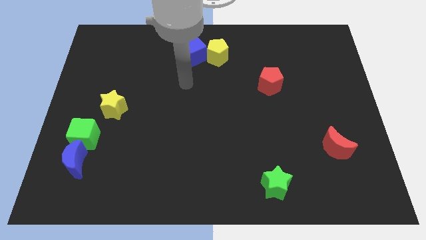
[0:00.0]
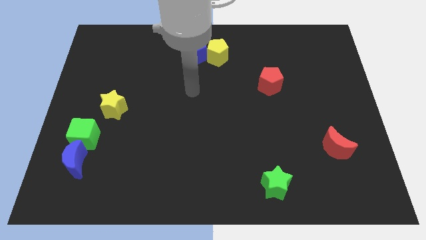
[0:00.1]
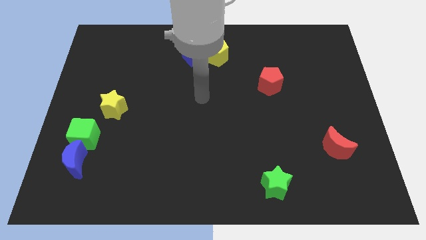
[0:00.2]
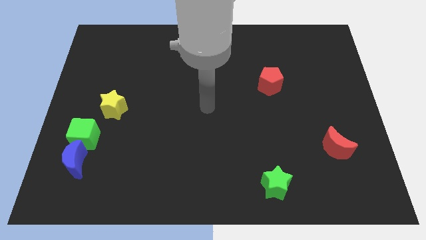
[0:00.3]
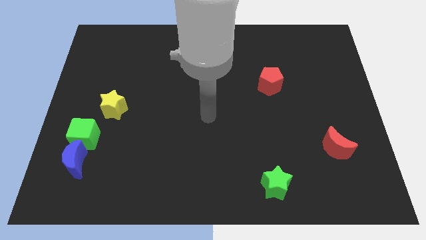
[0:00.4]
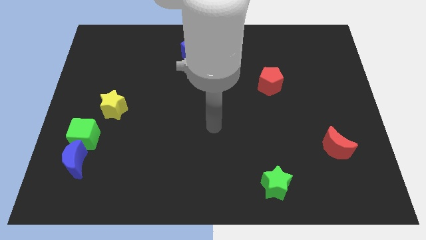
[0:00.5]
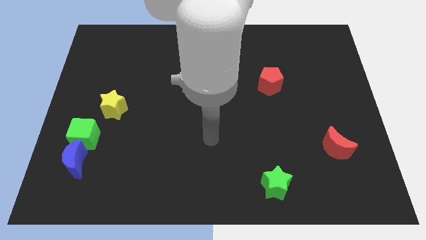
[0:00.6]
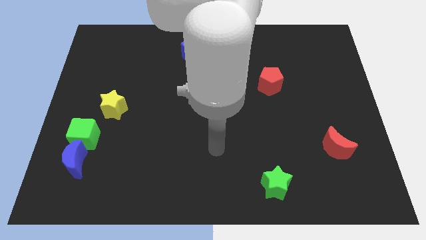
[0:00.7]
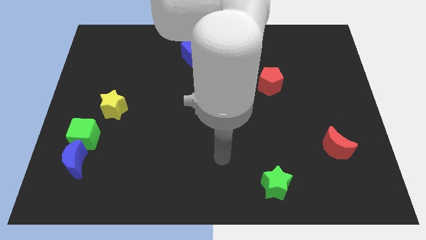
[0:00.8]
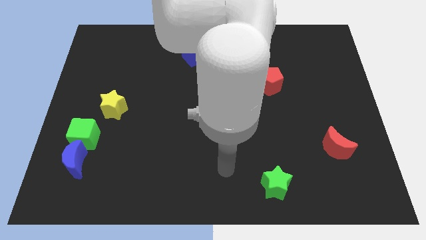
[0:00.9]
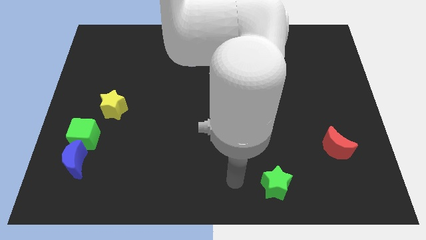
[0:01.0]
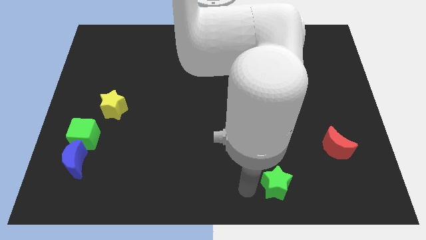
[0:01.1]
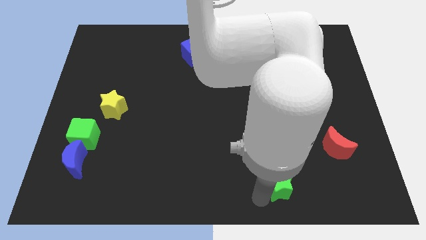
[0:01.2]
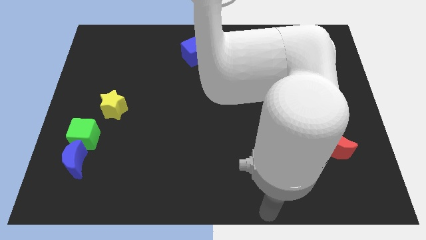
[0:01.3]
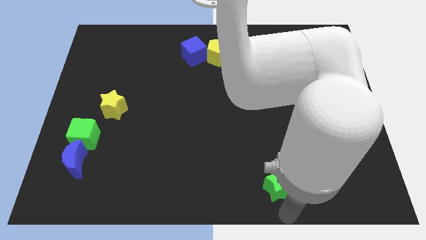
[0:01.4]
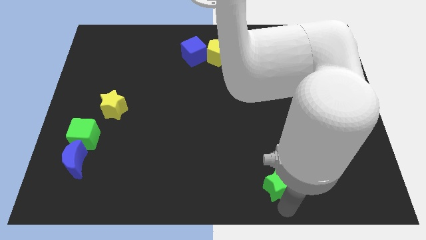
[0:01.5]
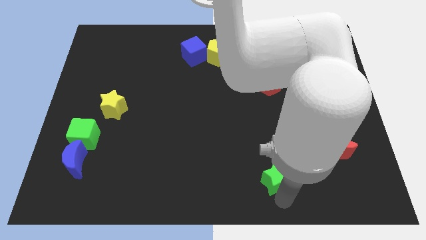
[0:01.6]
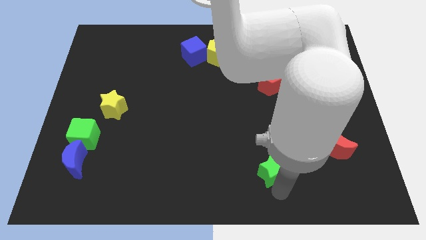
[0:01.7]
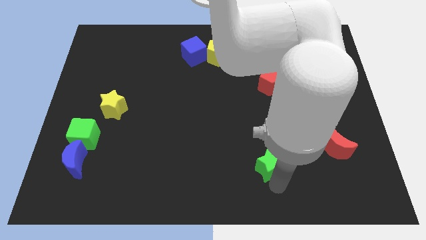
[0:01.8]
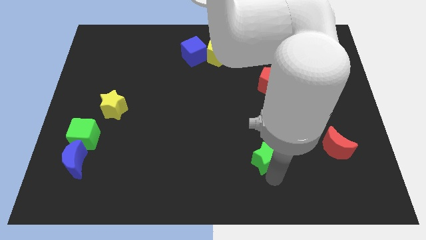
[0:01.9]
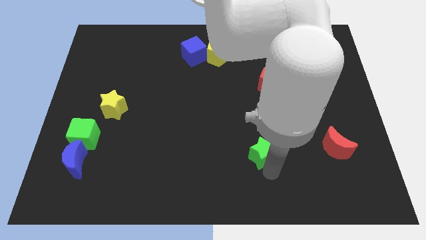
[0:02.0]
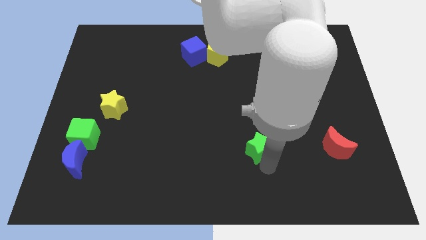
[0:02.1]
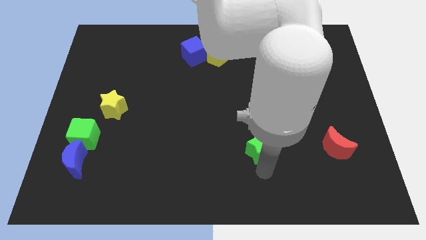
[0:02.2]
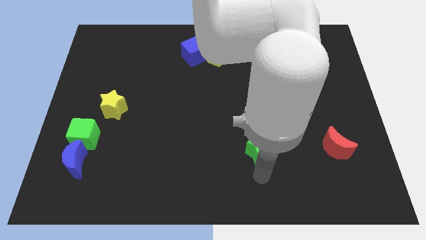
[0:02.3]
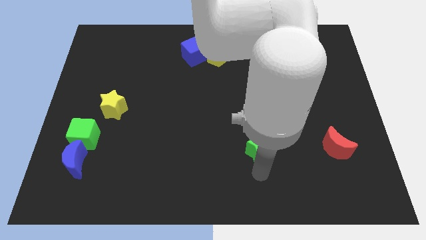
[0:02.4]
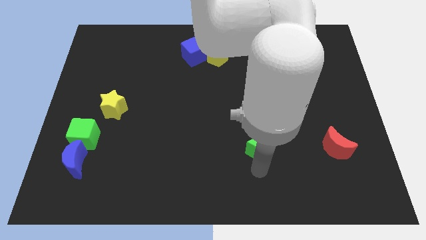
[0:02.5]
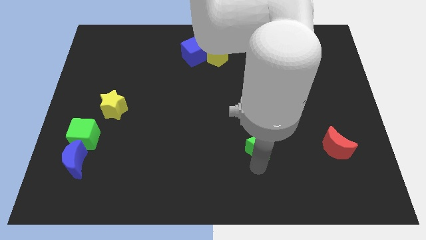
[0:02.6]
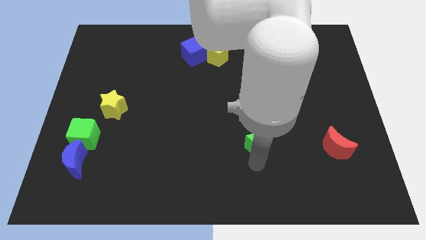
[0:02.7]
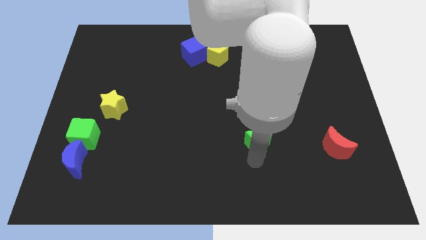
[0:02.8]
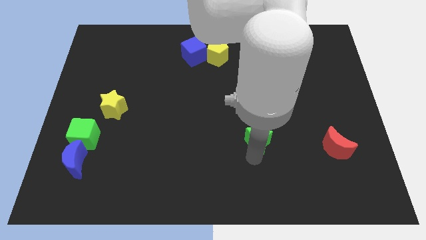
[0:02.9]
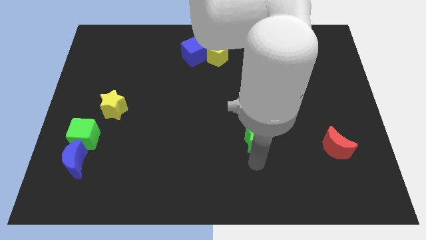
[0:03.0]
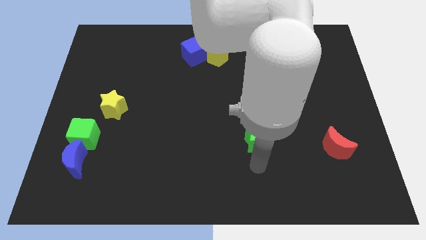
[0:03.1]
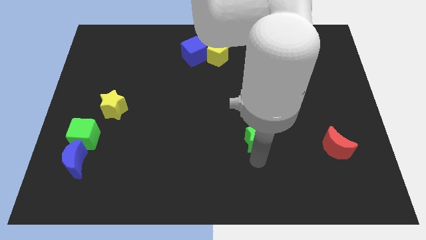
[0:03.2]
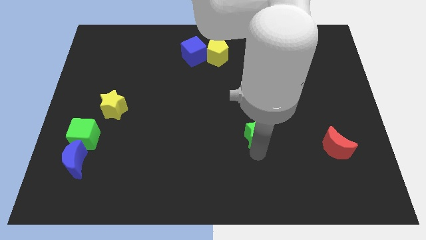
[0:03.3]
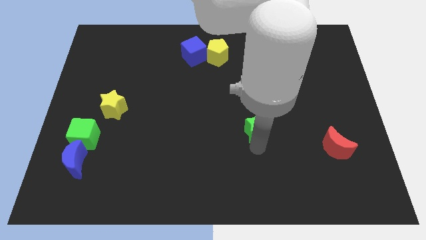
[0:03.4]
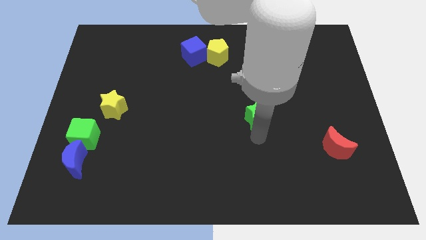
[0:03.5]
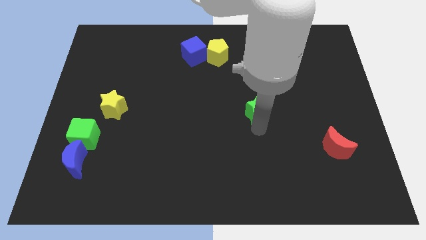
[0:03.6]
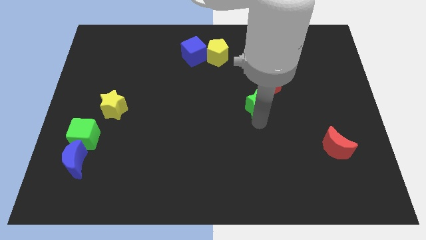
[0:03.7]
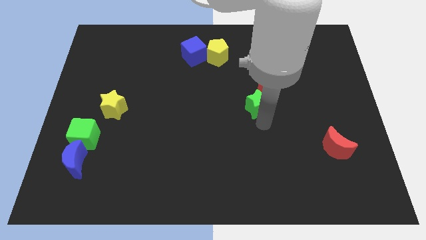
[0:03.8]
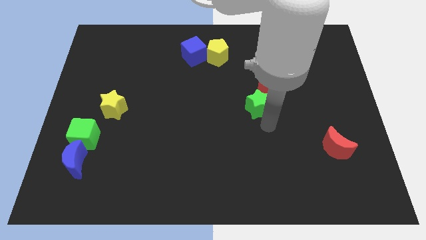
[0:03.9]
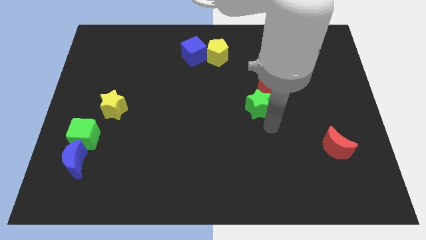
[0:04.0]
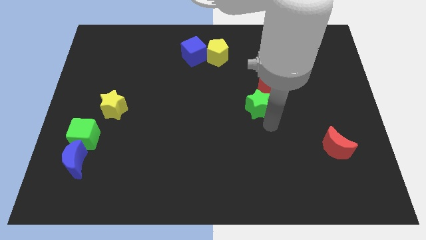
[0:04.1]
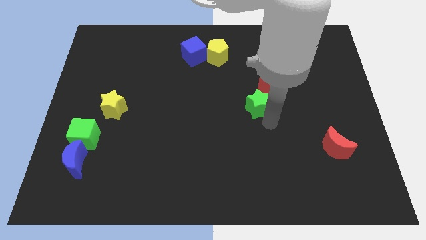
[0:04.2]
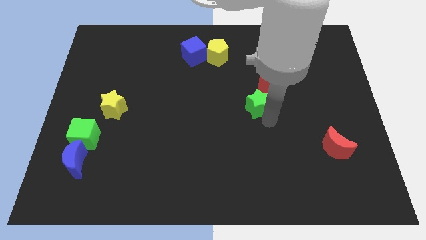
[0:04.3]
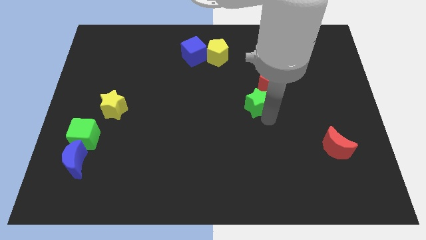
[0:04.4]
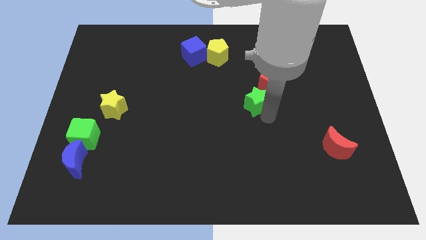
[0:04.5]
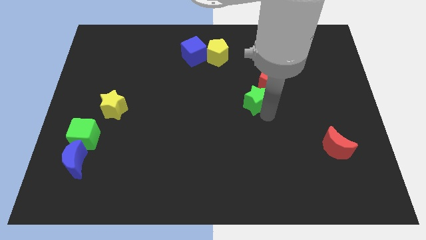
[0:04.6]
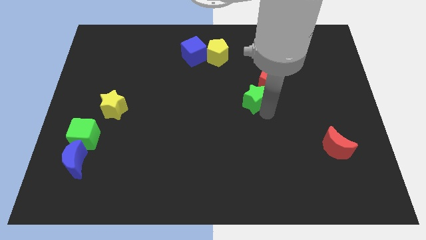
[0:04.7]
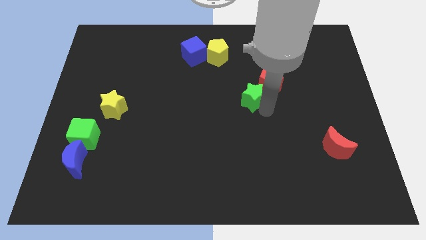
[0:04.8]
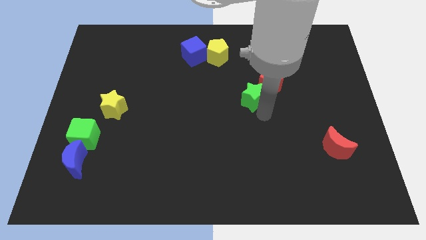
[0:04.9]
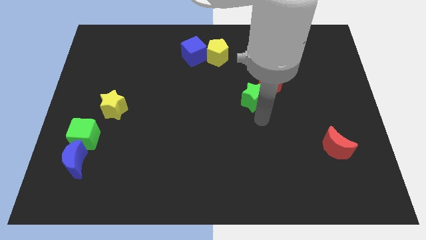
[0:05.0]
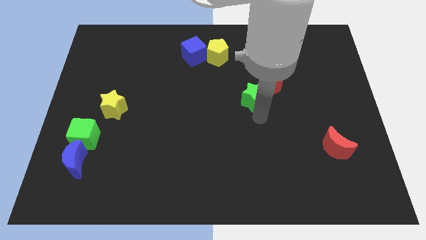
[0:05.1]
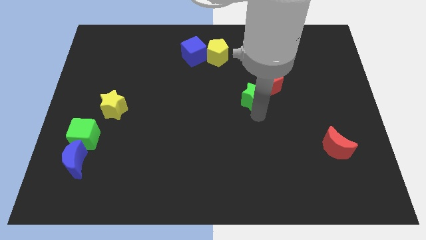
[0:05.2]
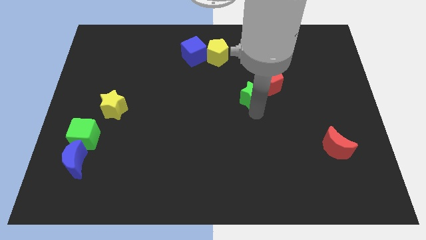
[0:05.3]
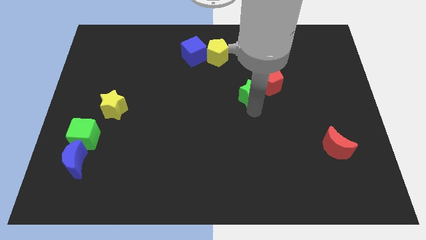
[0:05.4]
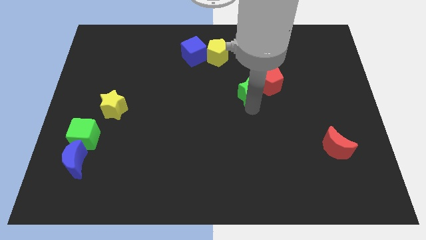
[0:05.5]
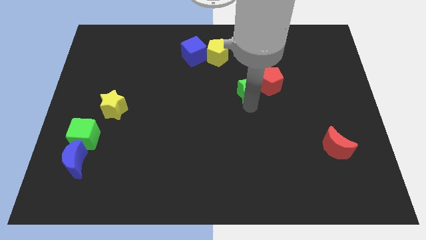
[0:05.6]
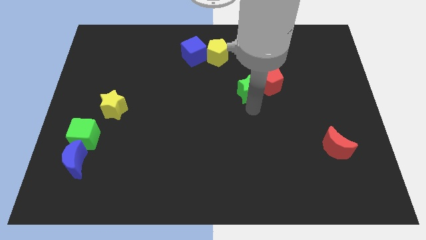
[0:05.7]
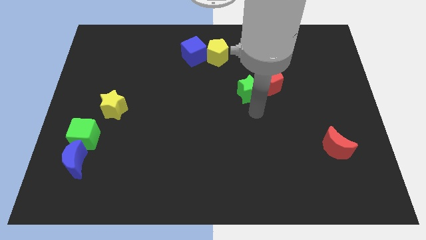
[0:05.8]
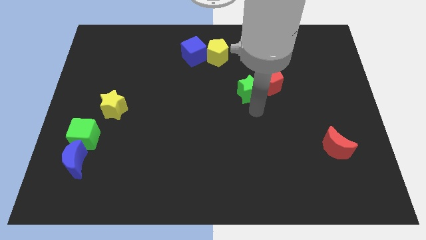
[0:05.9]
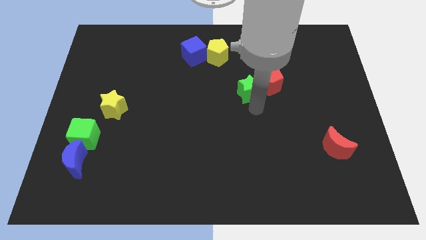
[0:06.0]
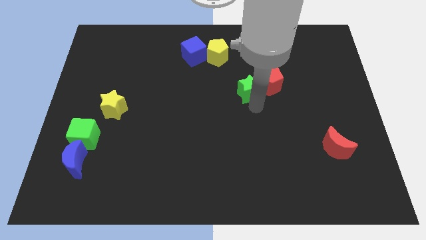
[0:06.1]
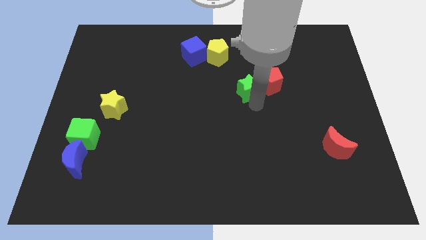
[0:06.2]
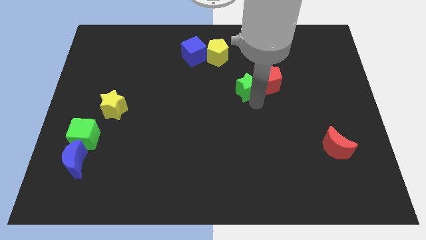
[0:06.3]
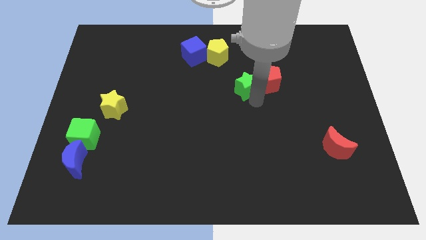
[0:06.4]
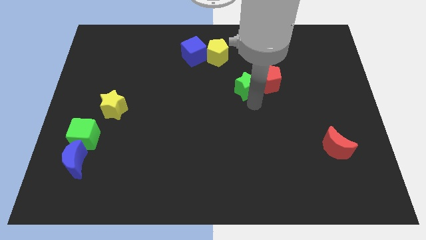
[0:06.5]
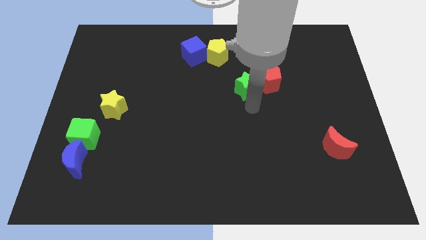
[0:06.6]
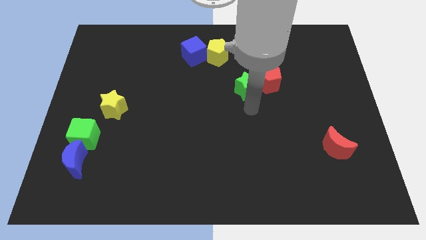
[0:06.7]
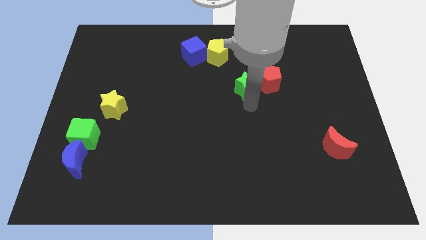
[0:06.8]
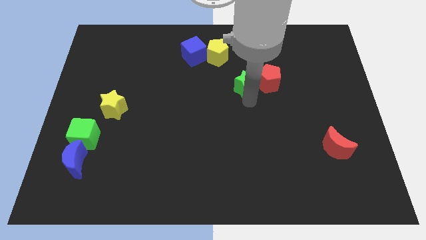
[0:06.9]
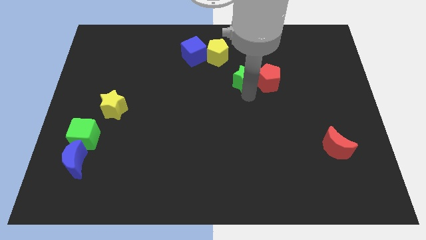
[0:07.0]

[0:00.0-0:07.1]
slide the green star to the bottom right side of the yellow pentagon
